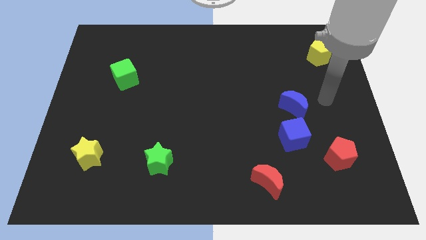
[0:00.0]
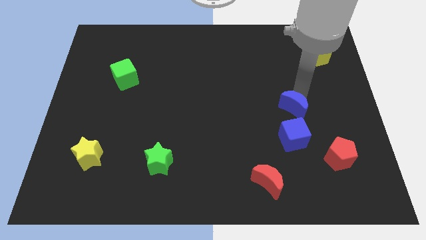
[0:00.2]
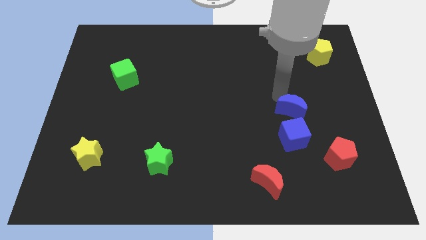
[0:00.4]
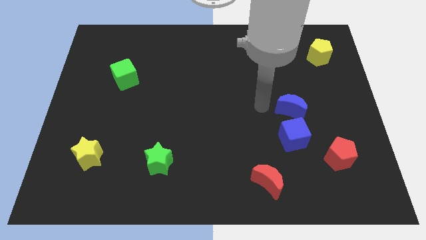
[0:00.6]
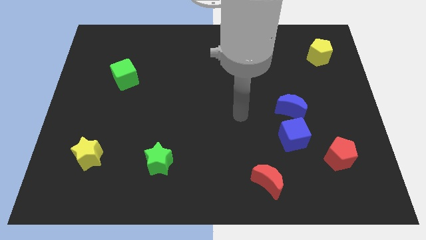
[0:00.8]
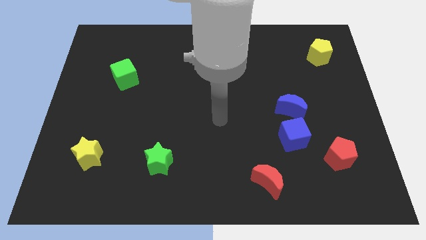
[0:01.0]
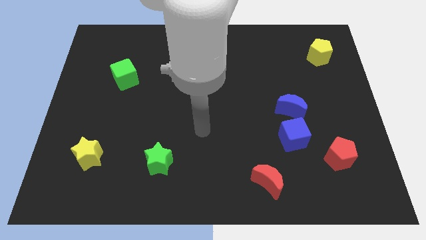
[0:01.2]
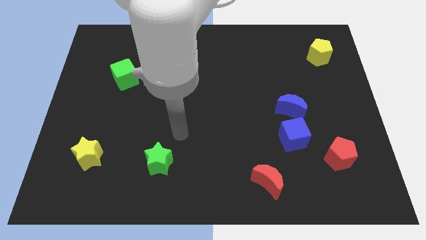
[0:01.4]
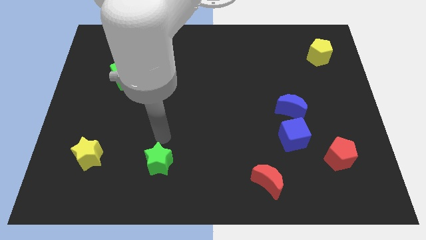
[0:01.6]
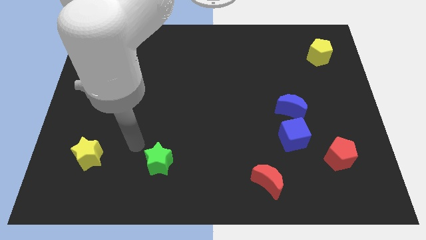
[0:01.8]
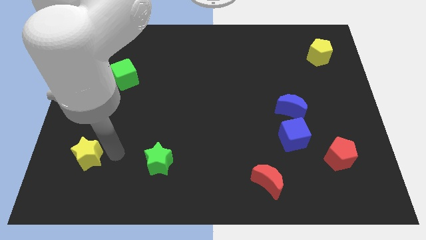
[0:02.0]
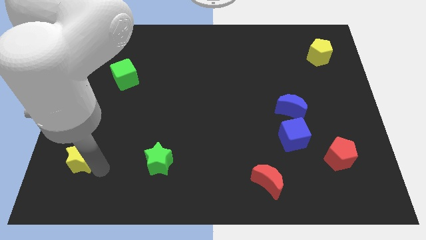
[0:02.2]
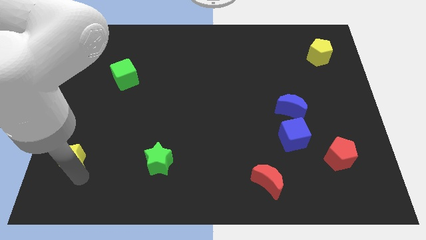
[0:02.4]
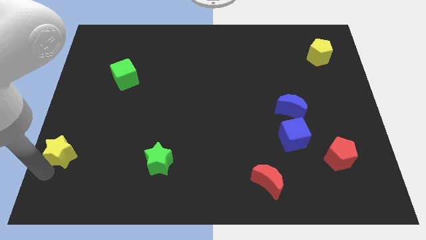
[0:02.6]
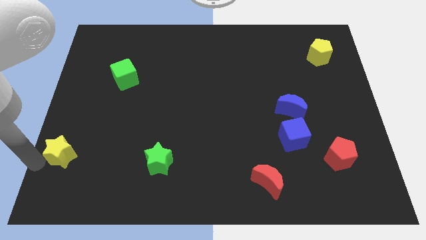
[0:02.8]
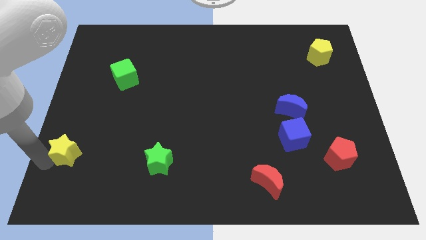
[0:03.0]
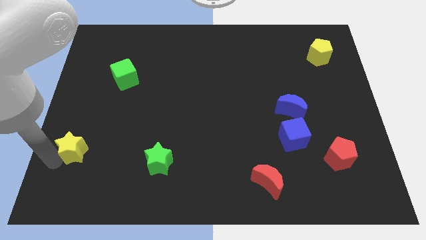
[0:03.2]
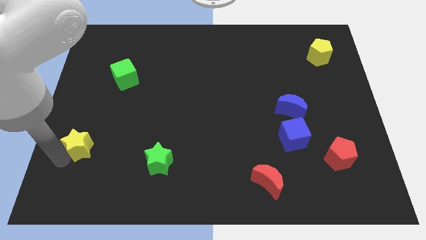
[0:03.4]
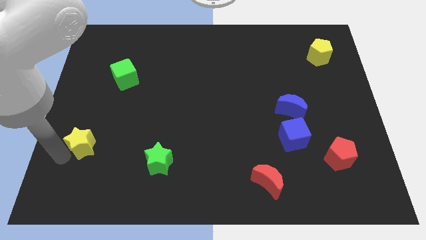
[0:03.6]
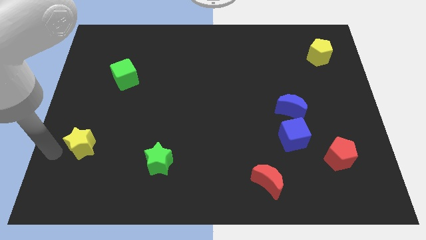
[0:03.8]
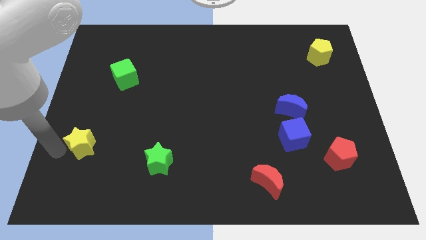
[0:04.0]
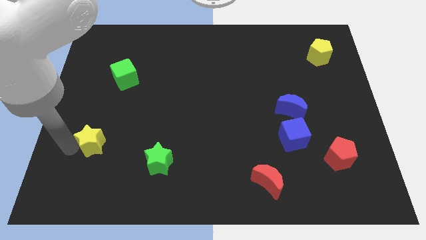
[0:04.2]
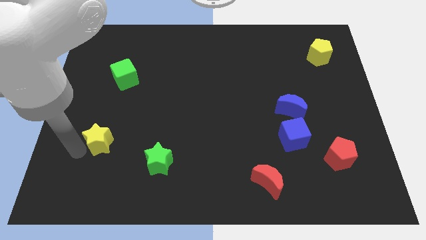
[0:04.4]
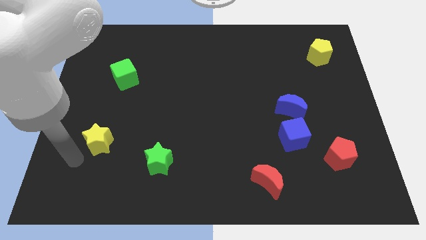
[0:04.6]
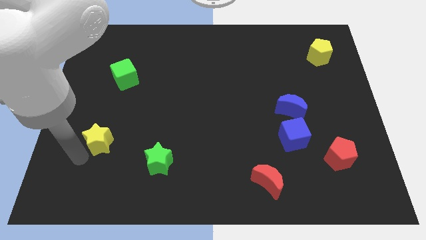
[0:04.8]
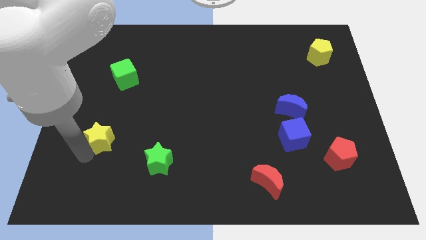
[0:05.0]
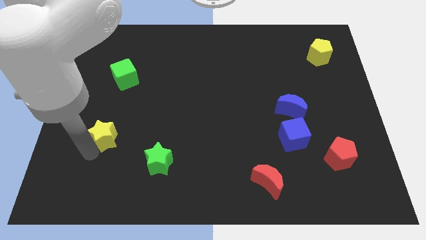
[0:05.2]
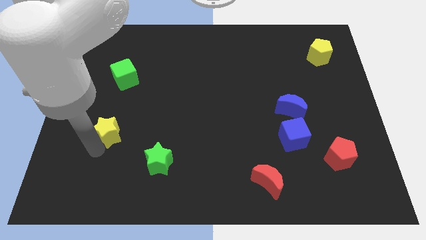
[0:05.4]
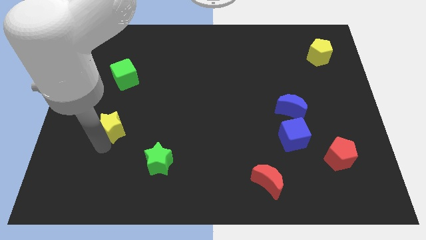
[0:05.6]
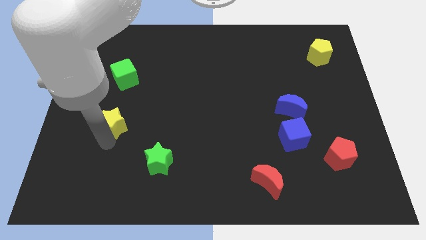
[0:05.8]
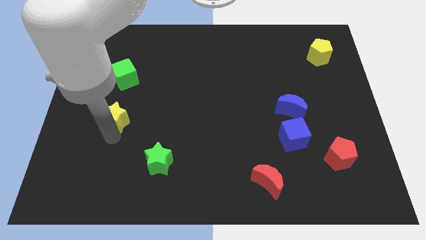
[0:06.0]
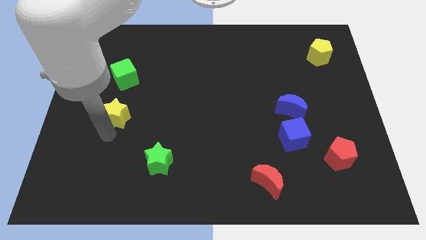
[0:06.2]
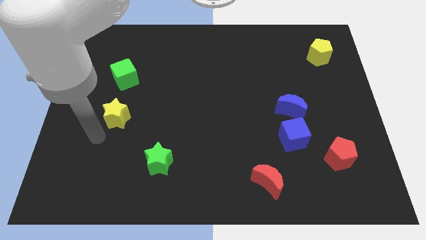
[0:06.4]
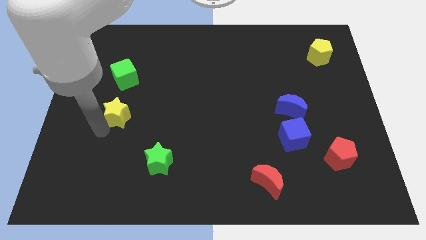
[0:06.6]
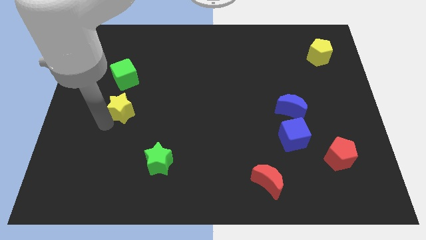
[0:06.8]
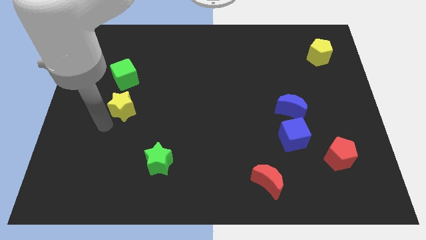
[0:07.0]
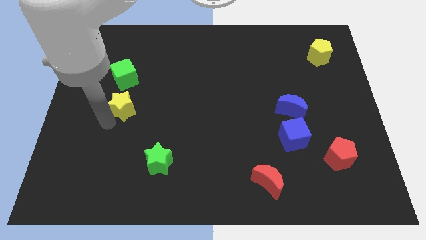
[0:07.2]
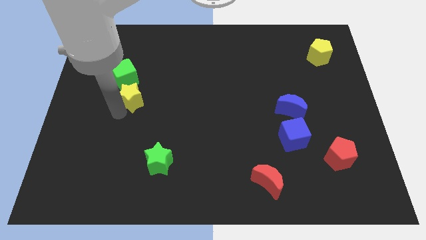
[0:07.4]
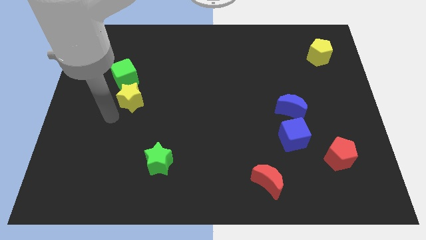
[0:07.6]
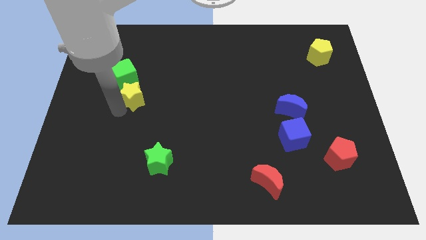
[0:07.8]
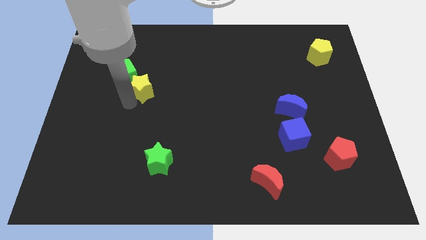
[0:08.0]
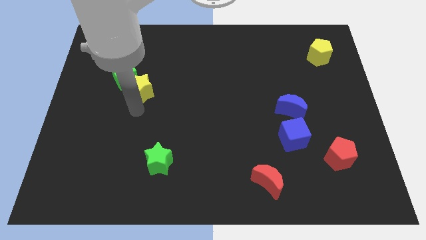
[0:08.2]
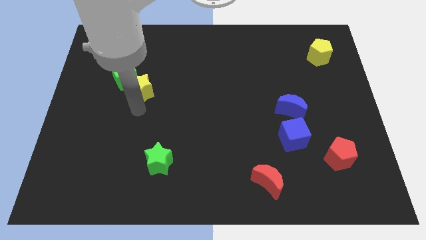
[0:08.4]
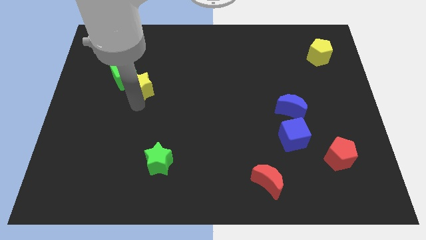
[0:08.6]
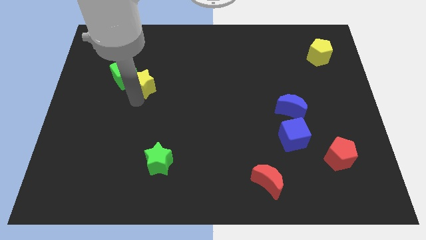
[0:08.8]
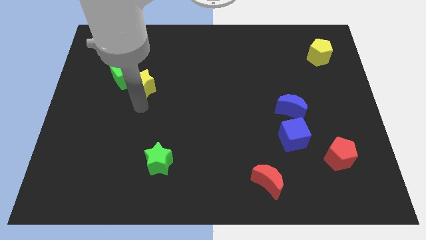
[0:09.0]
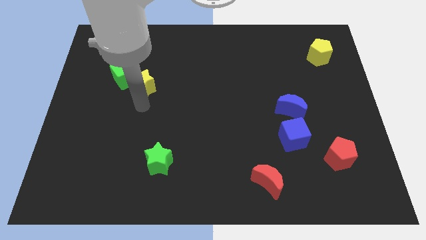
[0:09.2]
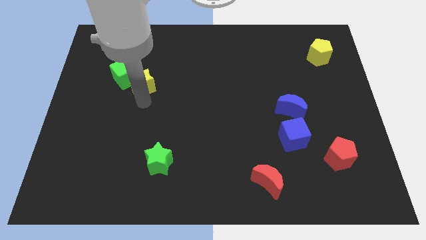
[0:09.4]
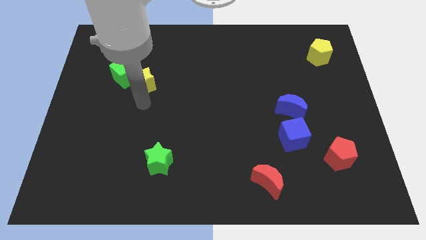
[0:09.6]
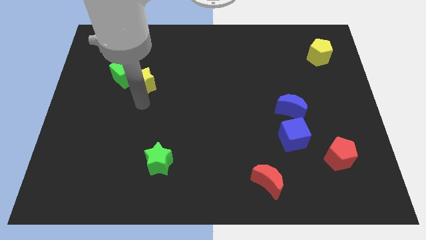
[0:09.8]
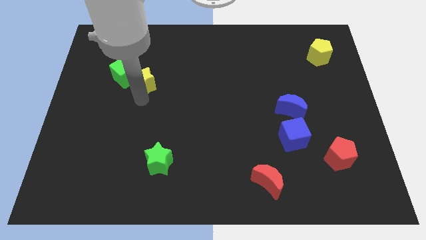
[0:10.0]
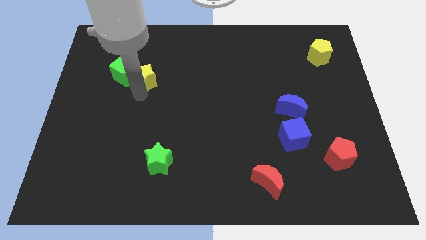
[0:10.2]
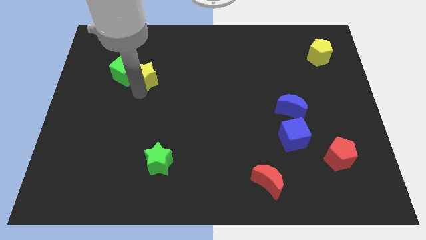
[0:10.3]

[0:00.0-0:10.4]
move the yellow star to the top right of the green cube

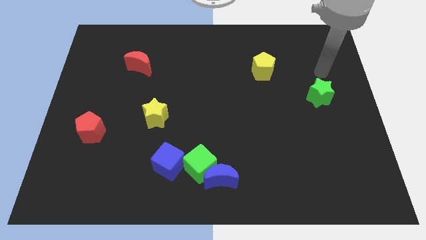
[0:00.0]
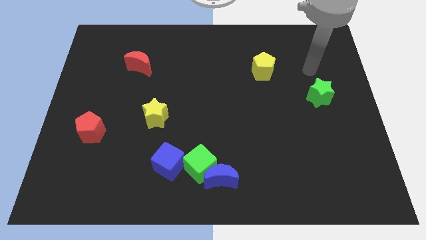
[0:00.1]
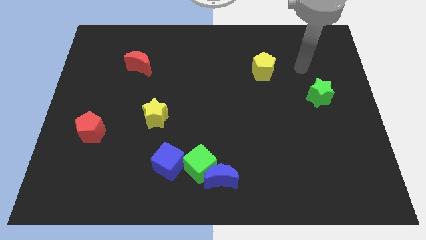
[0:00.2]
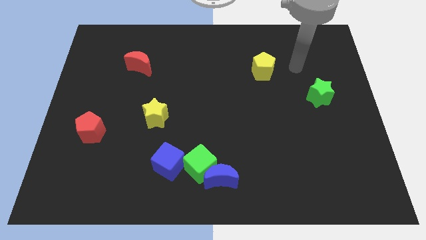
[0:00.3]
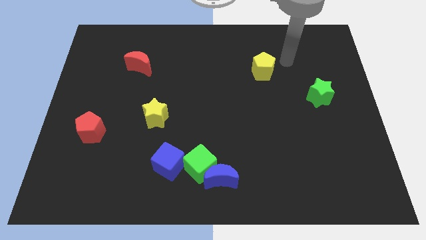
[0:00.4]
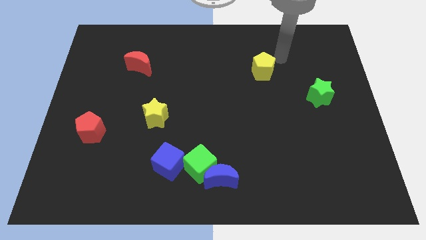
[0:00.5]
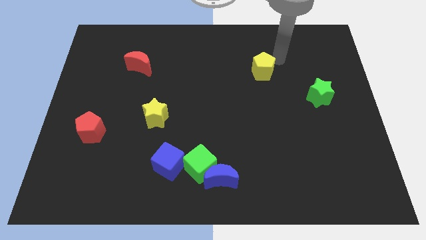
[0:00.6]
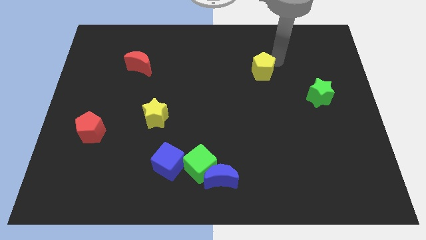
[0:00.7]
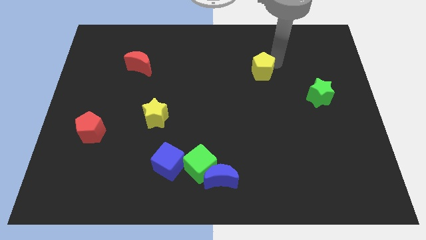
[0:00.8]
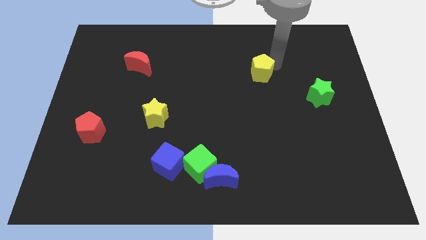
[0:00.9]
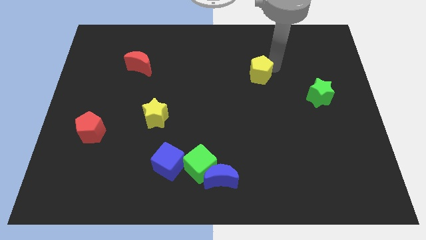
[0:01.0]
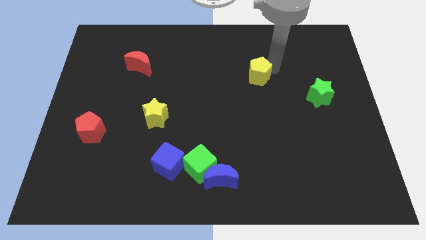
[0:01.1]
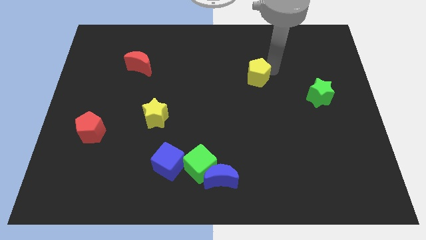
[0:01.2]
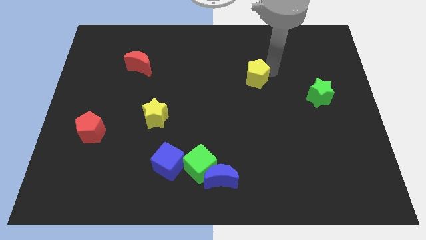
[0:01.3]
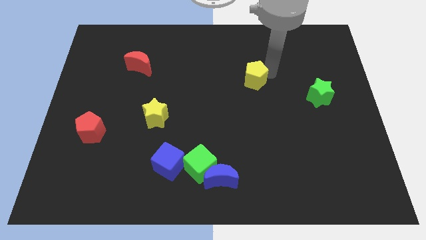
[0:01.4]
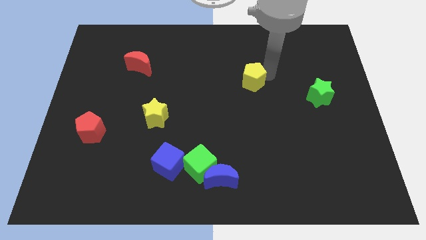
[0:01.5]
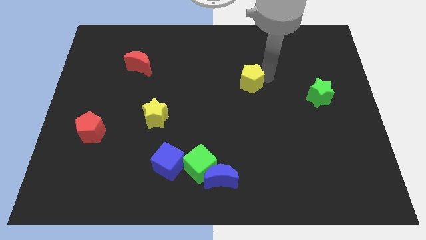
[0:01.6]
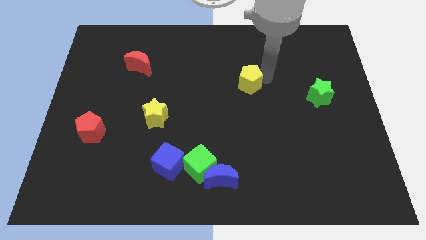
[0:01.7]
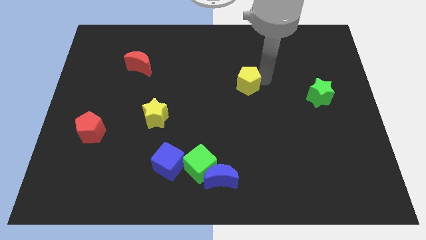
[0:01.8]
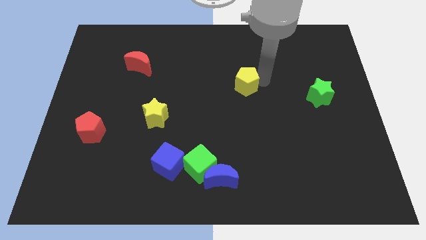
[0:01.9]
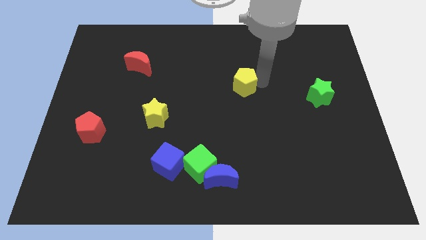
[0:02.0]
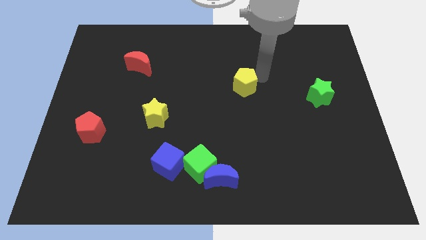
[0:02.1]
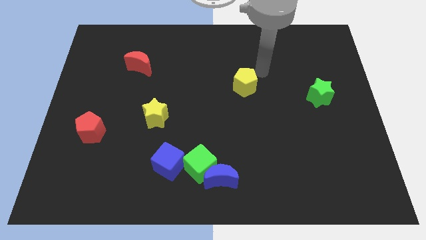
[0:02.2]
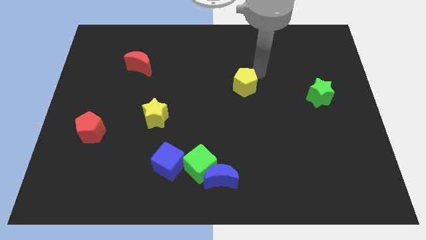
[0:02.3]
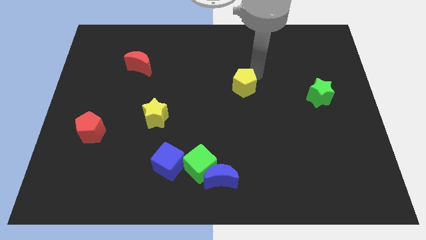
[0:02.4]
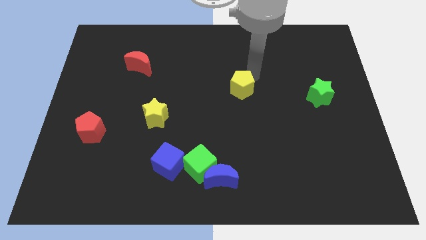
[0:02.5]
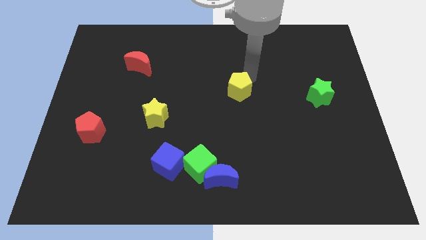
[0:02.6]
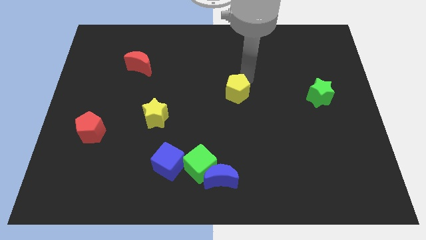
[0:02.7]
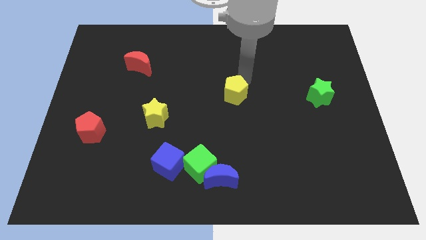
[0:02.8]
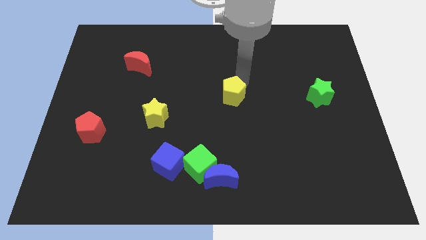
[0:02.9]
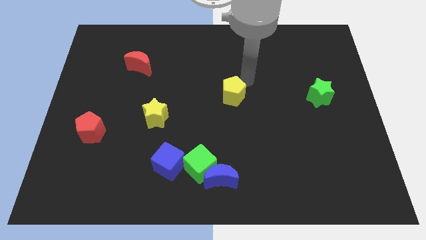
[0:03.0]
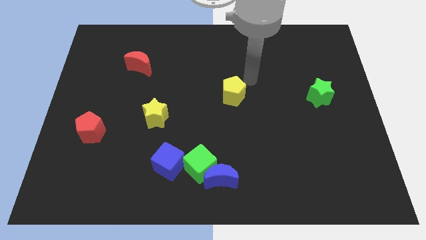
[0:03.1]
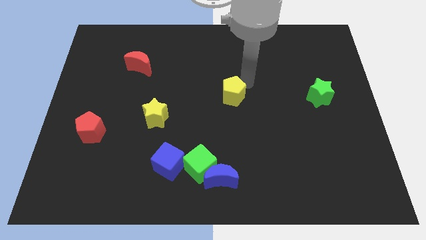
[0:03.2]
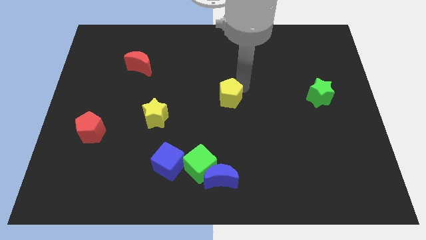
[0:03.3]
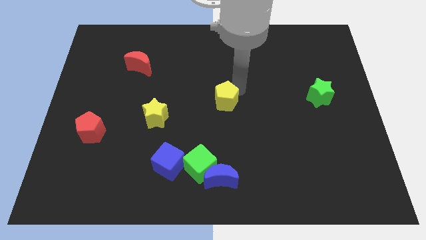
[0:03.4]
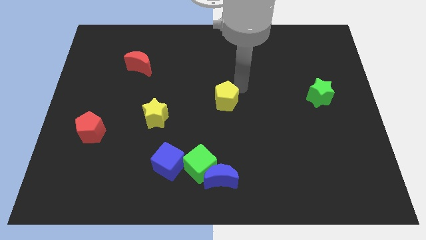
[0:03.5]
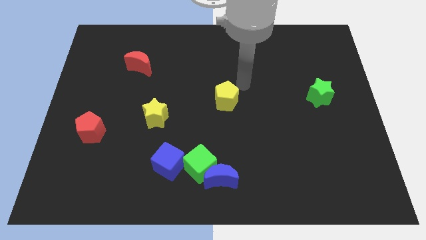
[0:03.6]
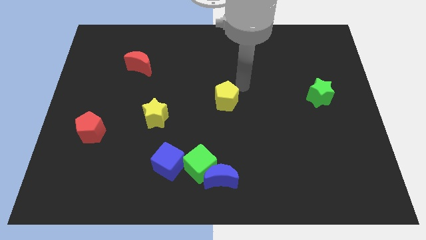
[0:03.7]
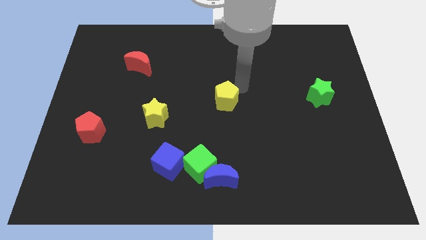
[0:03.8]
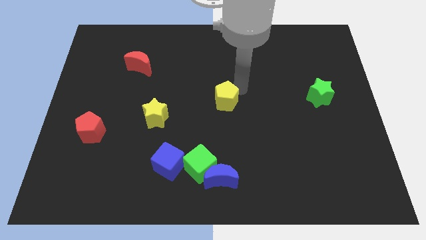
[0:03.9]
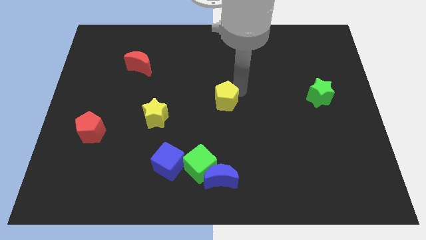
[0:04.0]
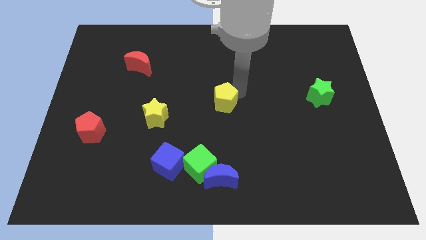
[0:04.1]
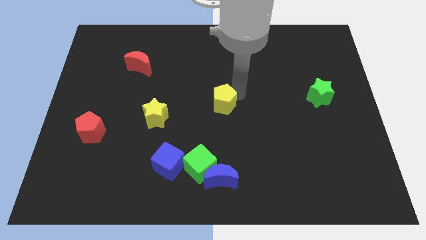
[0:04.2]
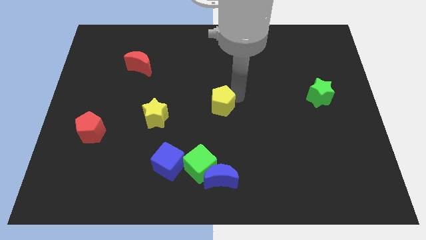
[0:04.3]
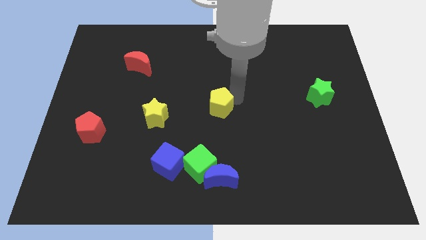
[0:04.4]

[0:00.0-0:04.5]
move the yellow pentagon to the right of the yellow star
